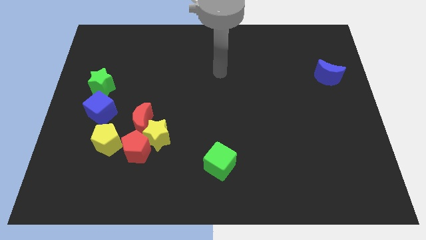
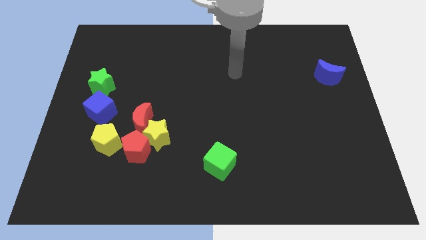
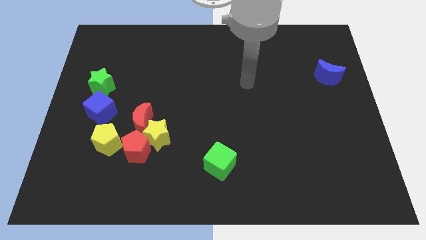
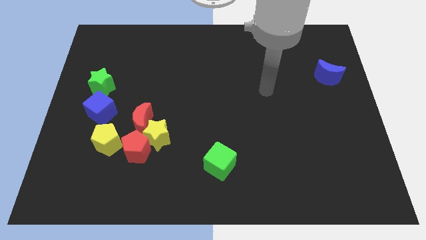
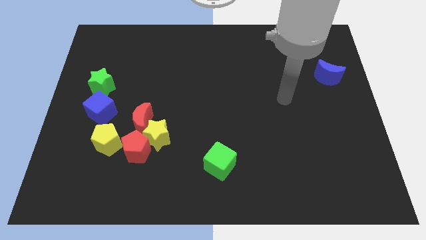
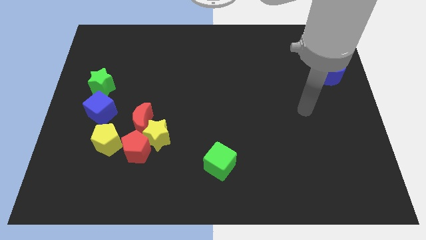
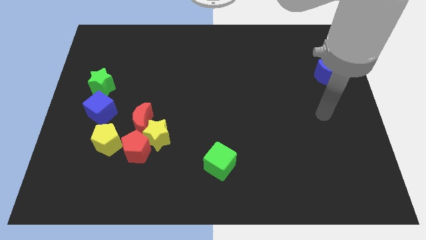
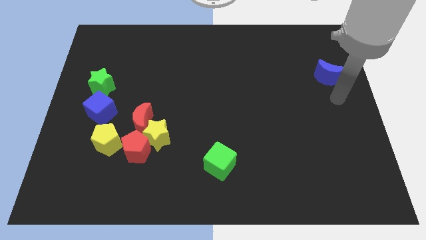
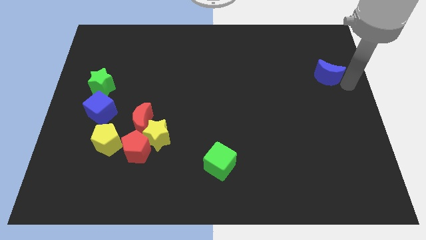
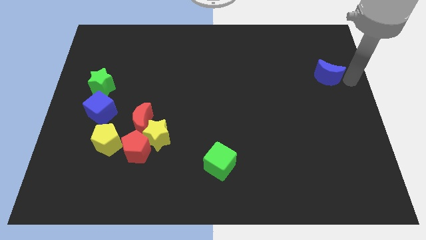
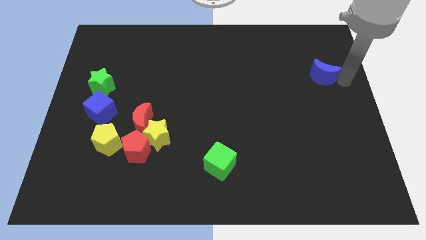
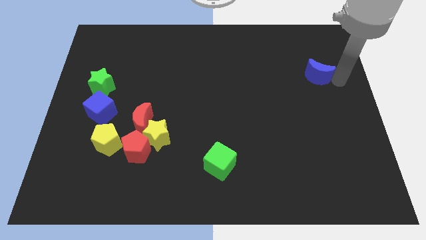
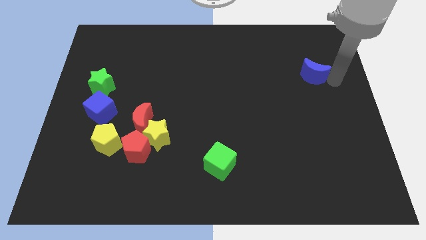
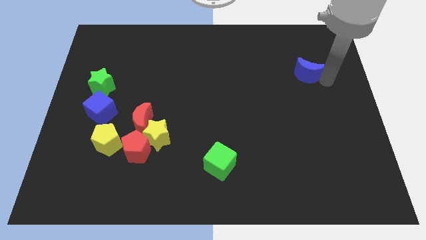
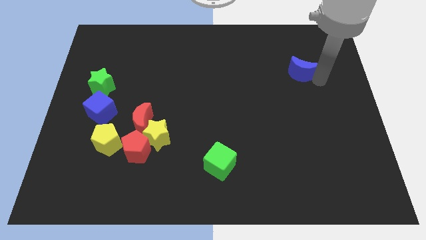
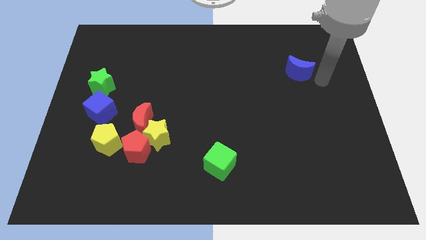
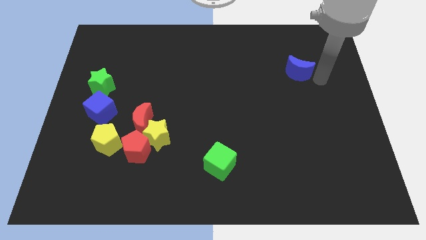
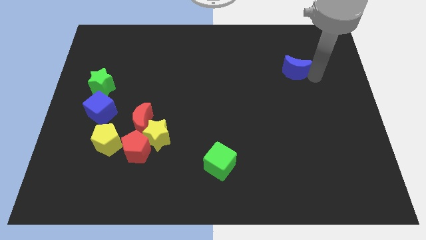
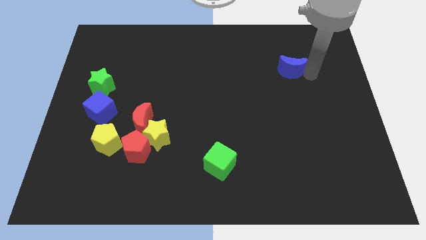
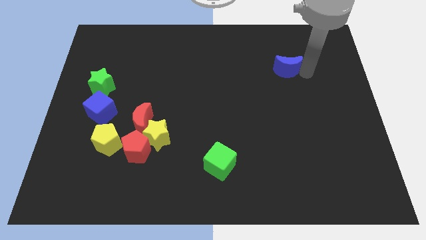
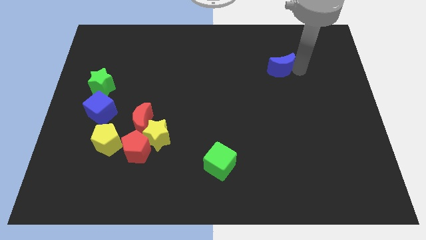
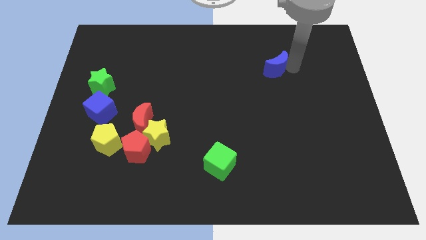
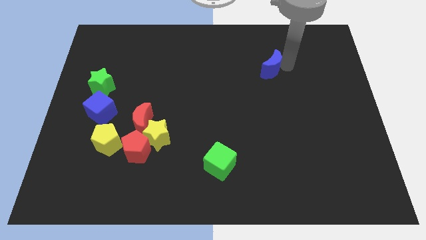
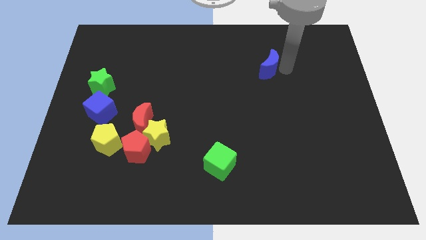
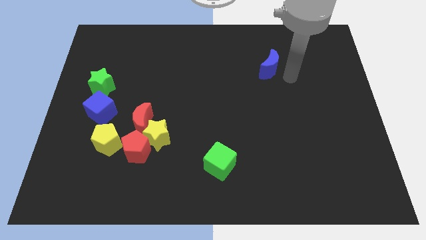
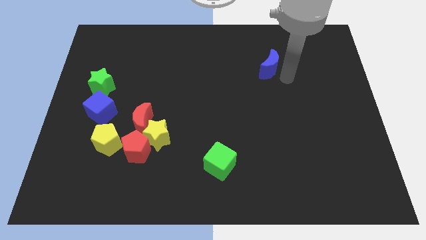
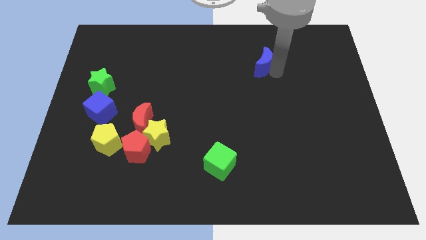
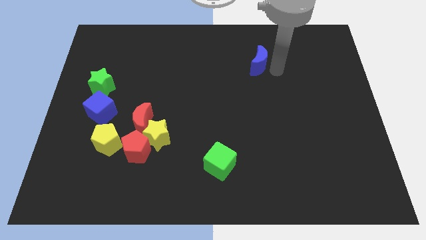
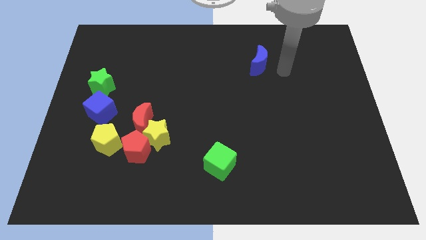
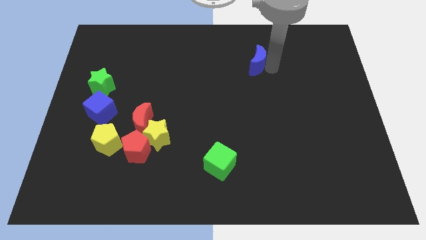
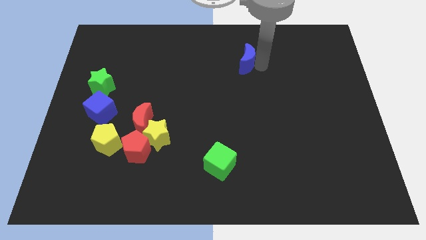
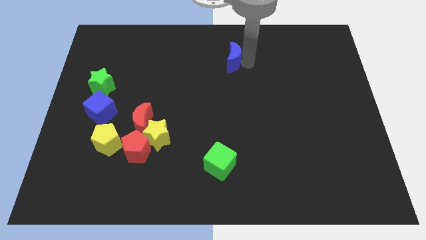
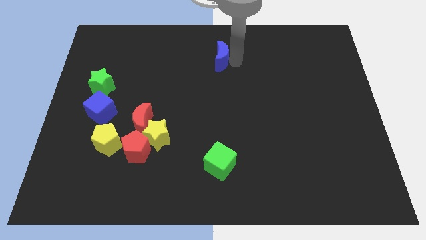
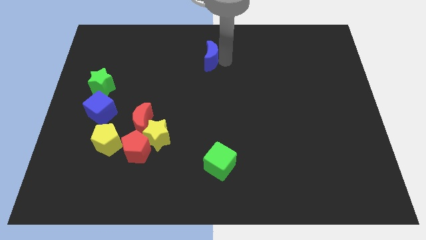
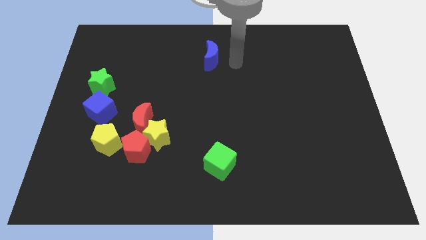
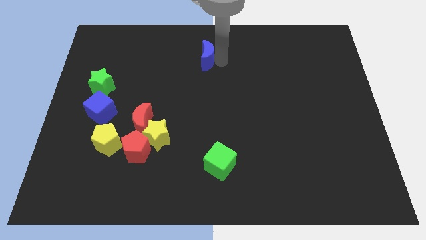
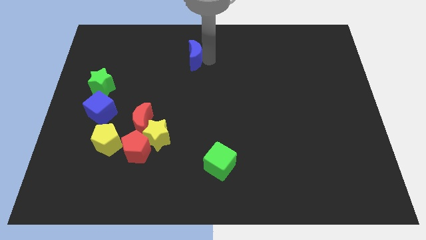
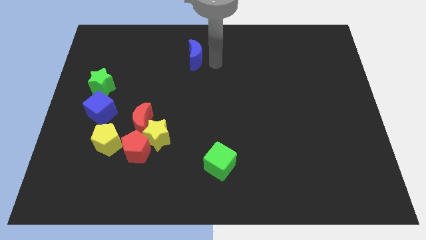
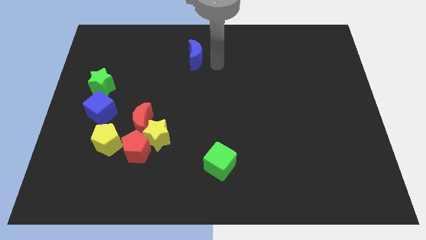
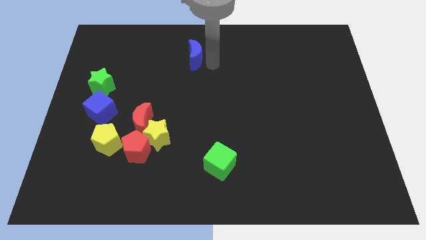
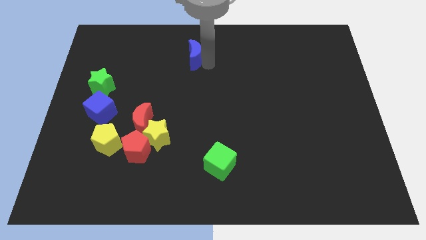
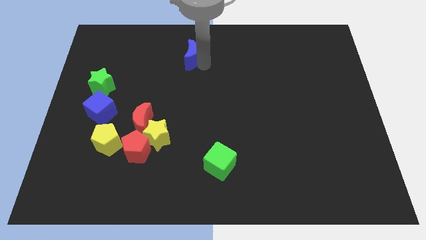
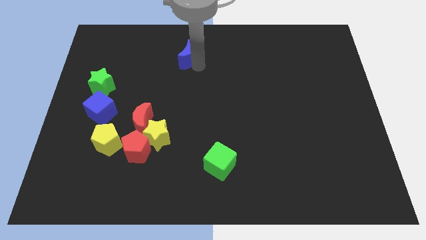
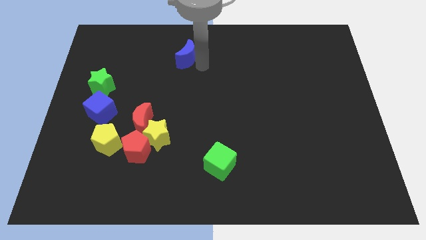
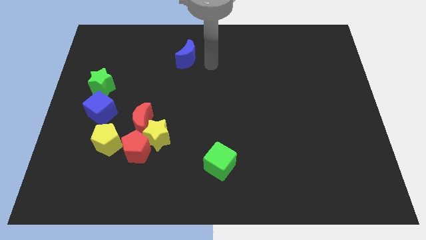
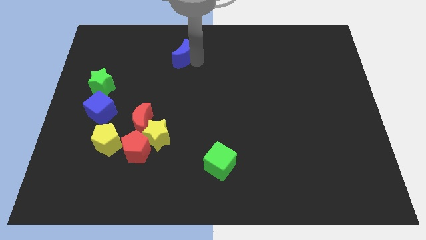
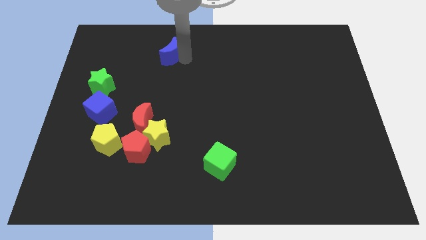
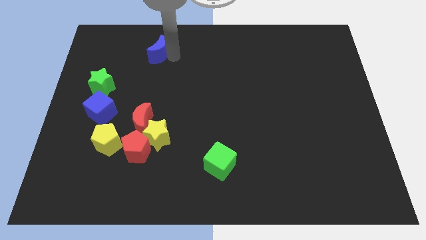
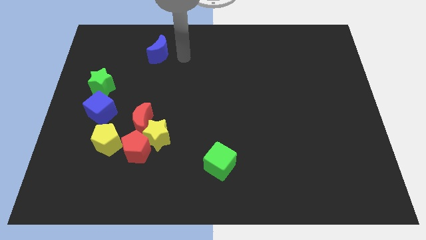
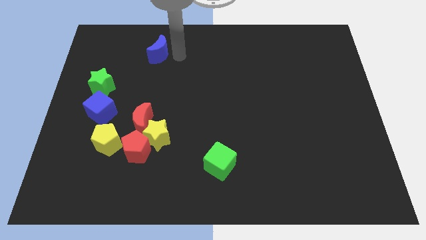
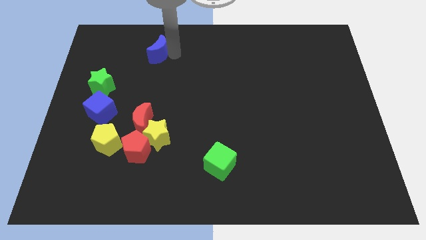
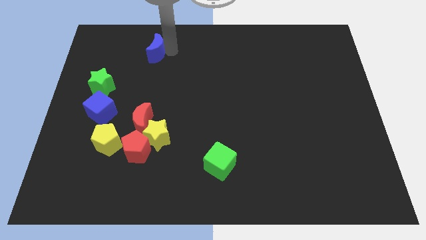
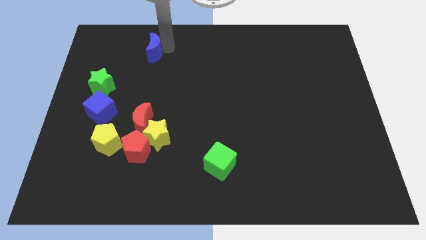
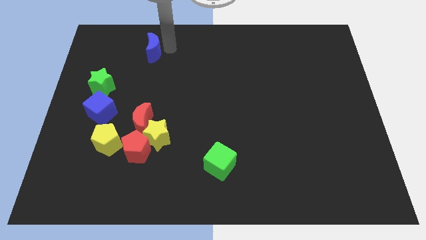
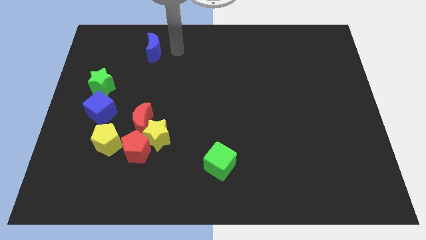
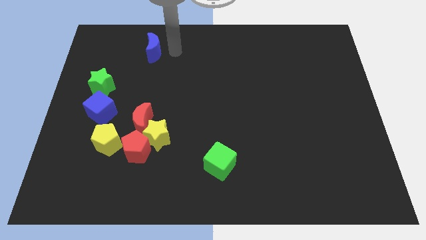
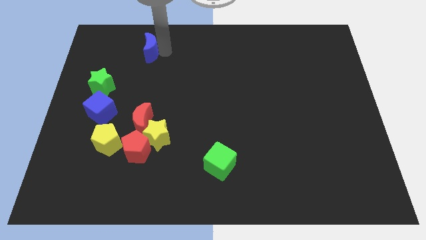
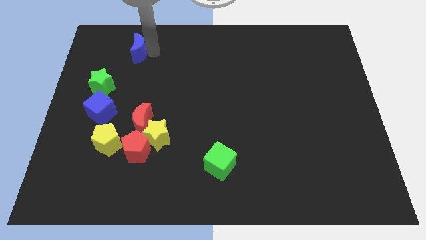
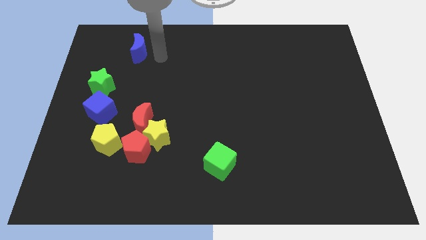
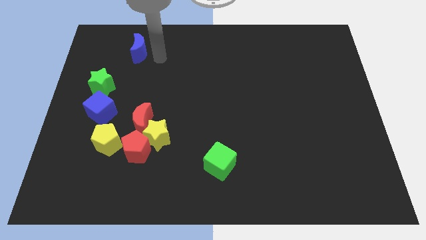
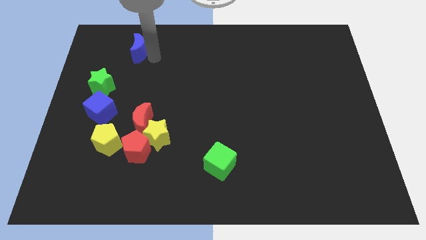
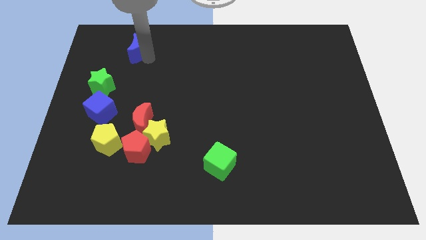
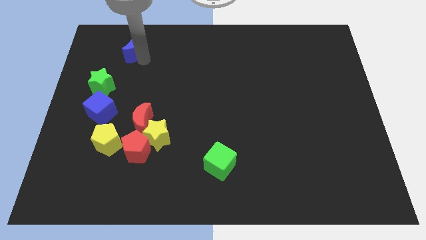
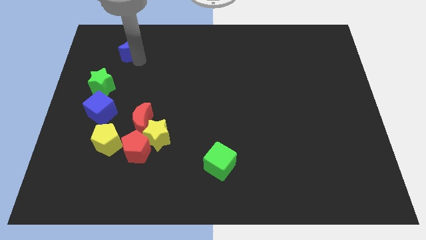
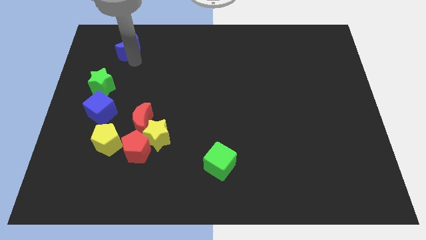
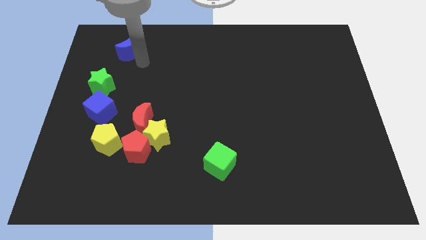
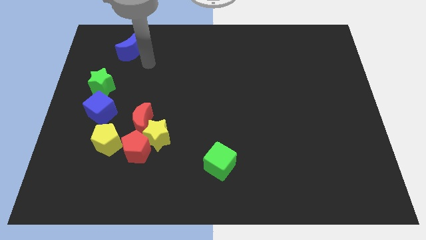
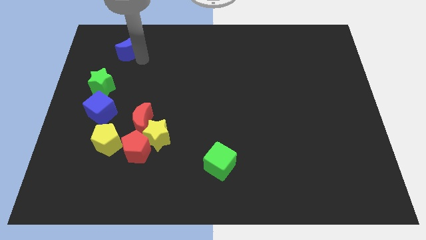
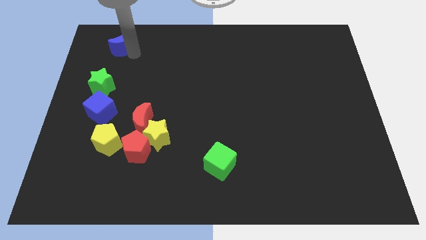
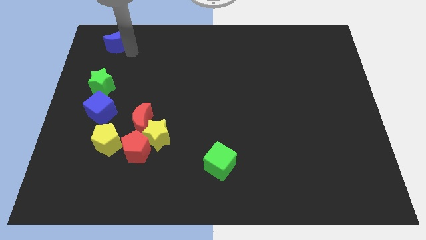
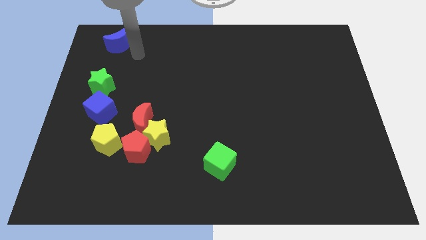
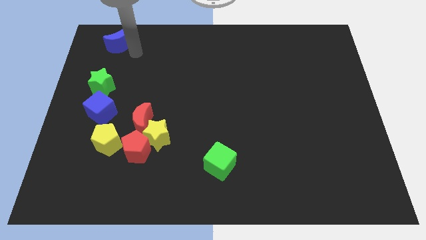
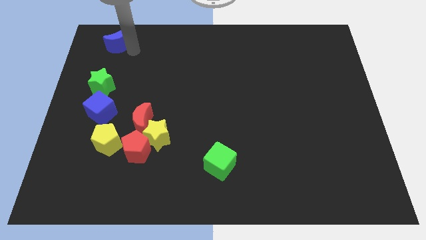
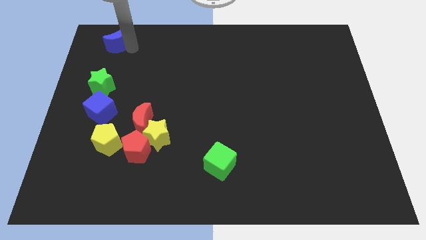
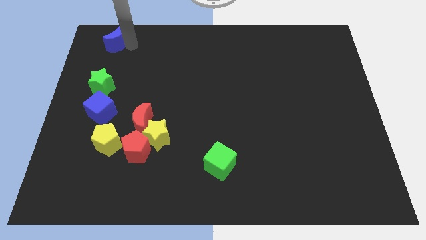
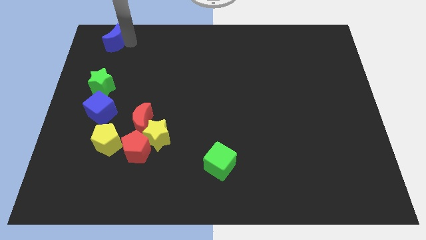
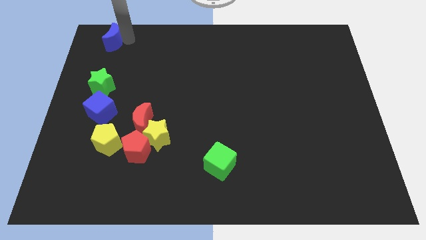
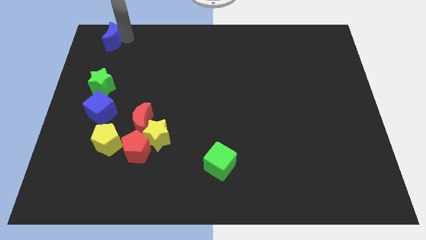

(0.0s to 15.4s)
put the blue moon to the top left of the board
